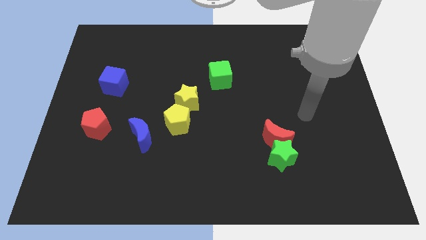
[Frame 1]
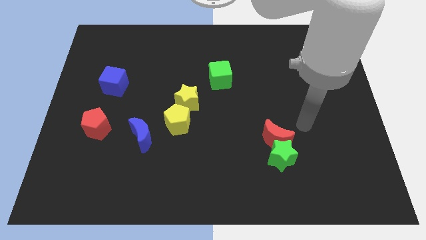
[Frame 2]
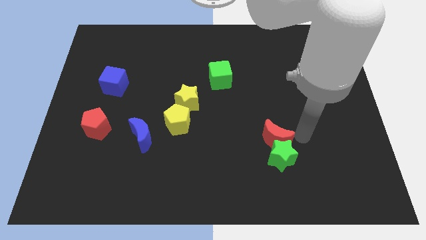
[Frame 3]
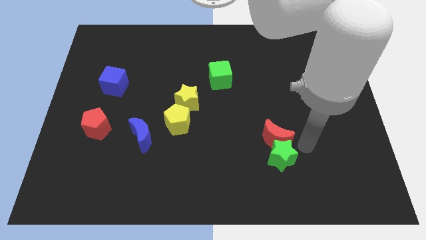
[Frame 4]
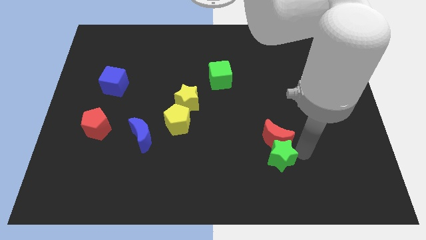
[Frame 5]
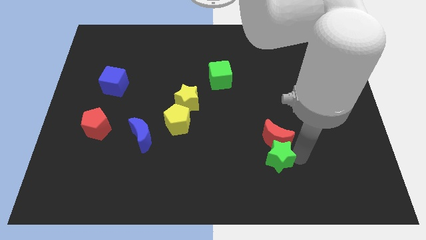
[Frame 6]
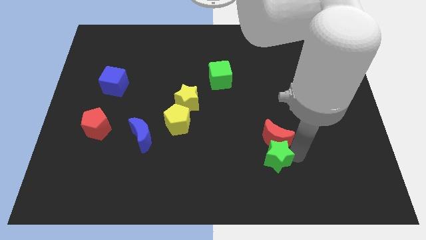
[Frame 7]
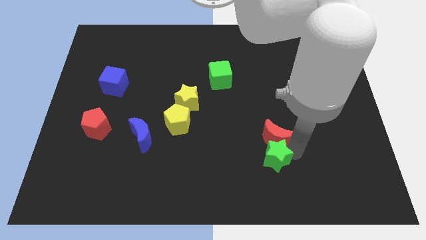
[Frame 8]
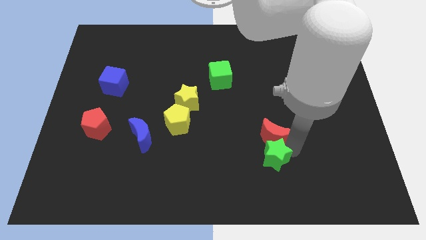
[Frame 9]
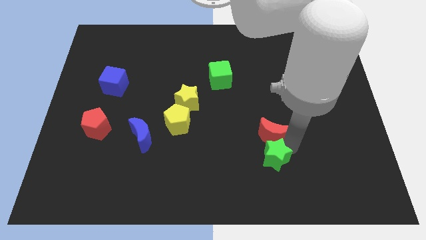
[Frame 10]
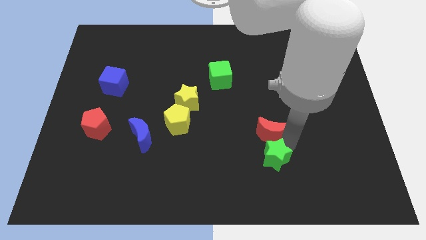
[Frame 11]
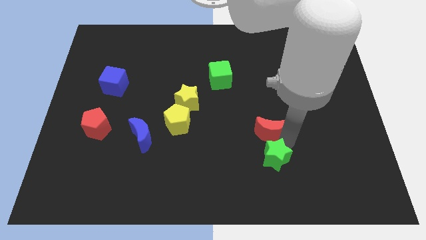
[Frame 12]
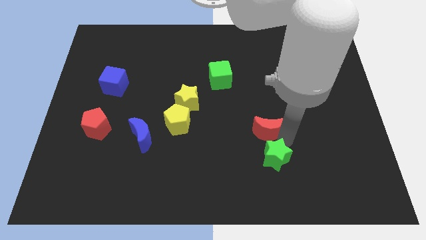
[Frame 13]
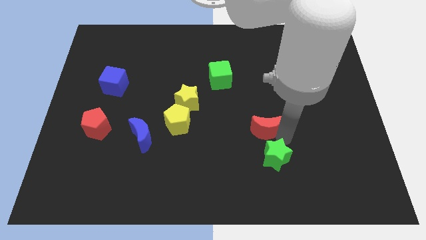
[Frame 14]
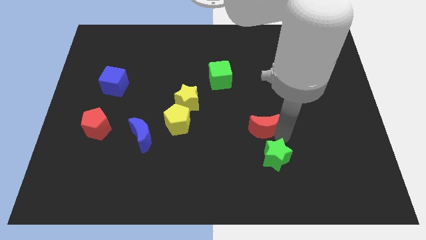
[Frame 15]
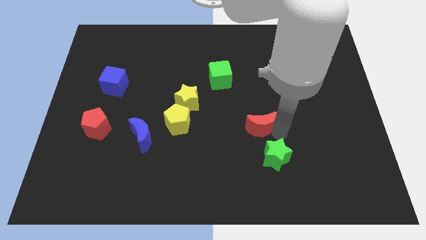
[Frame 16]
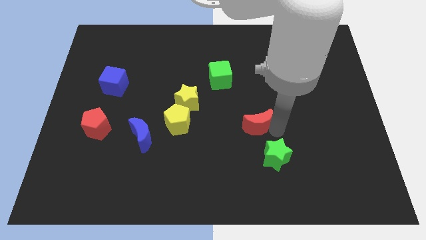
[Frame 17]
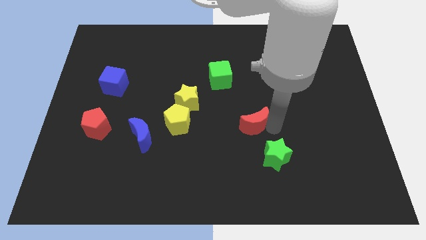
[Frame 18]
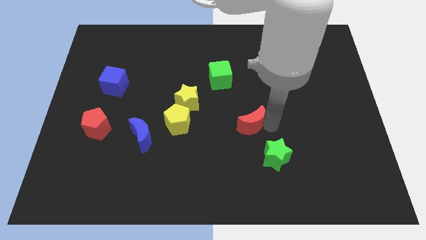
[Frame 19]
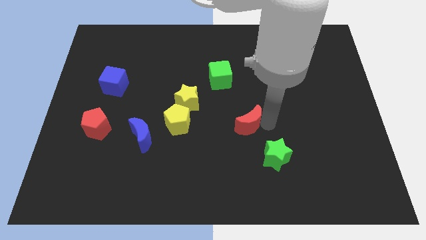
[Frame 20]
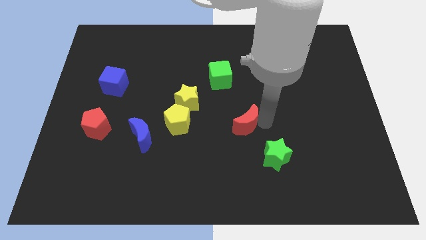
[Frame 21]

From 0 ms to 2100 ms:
slightly slide the red moon up and then left

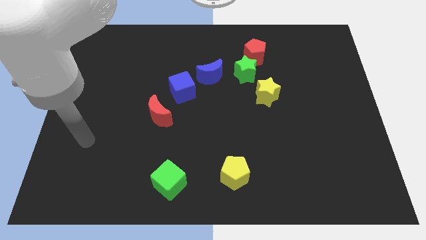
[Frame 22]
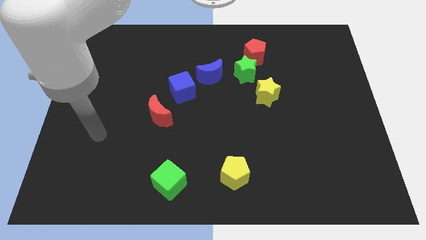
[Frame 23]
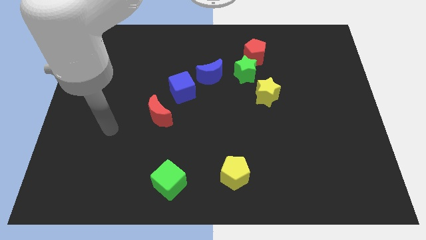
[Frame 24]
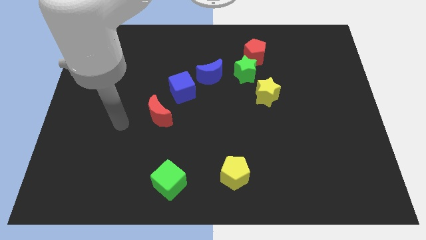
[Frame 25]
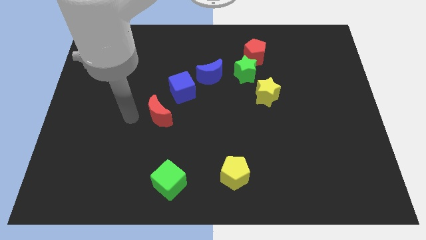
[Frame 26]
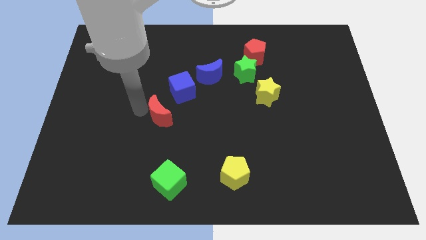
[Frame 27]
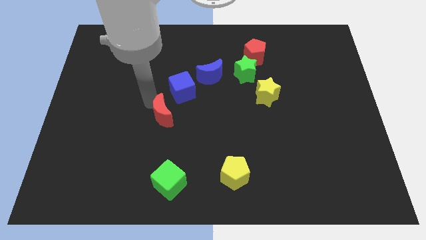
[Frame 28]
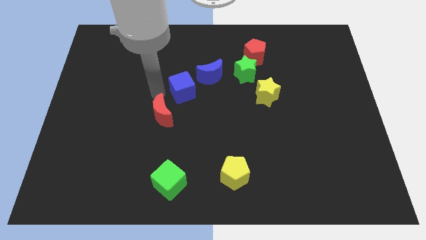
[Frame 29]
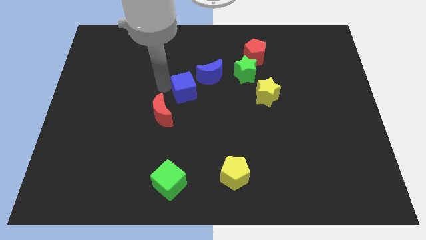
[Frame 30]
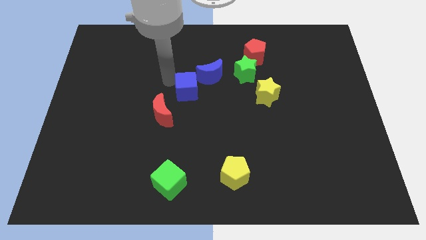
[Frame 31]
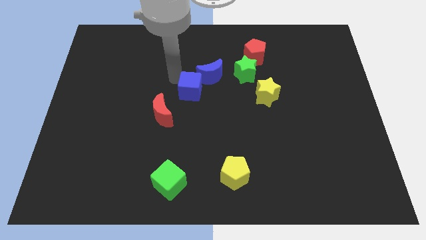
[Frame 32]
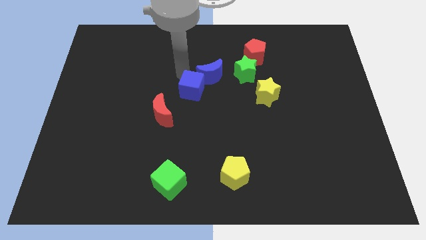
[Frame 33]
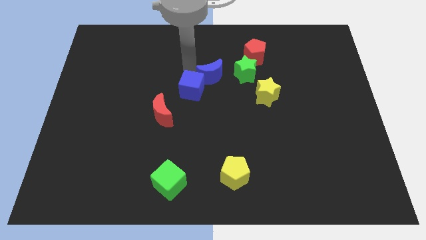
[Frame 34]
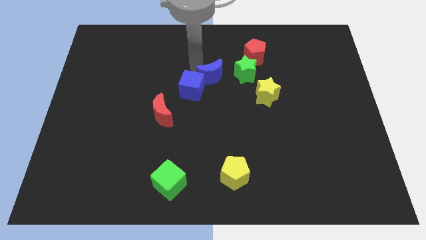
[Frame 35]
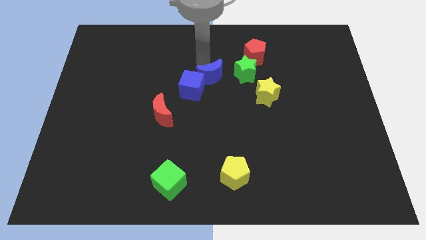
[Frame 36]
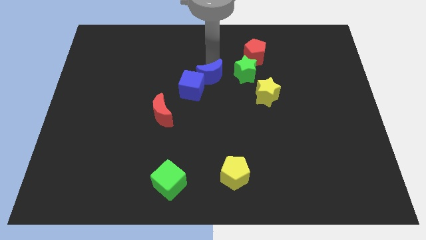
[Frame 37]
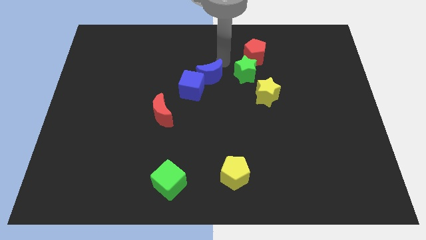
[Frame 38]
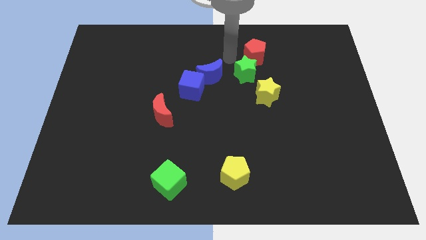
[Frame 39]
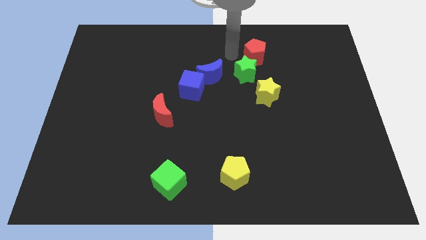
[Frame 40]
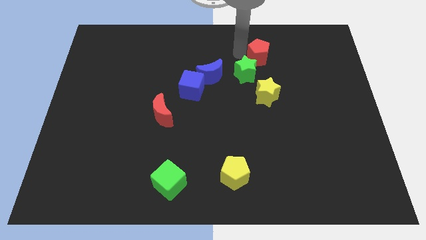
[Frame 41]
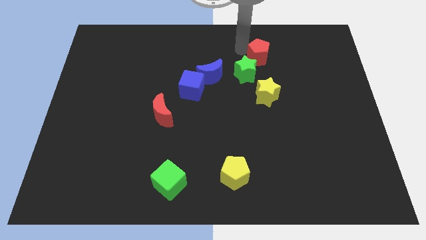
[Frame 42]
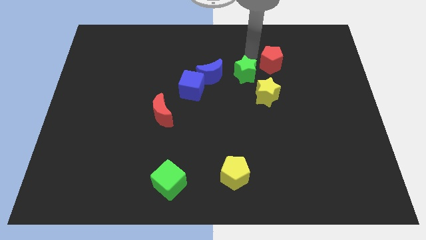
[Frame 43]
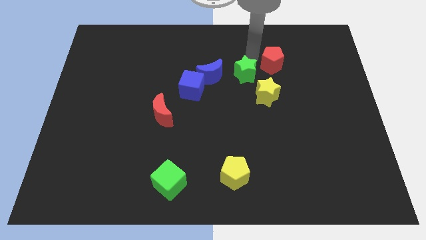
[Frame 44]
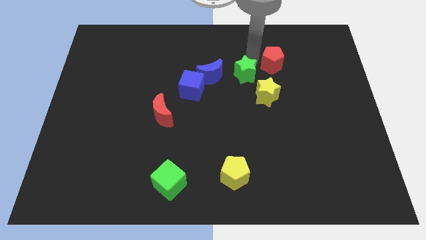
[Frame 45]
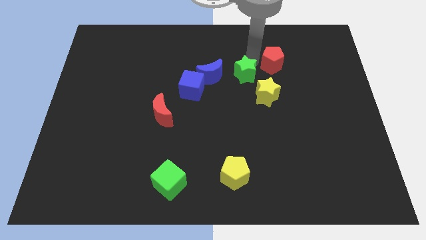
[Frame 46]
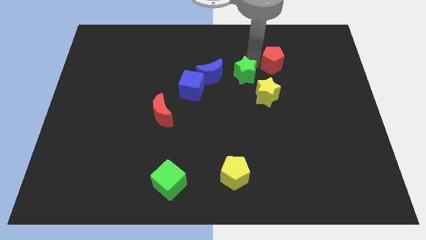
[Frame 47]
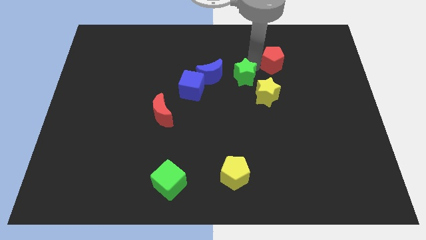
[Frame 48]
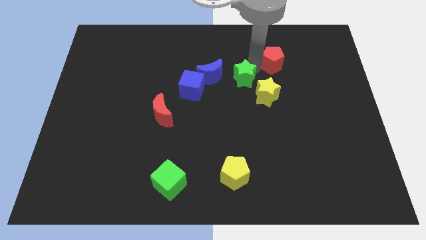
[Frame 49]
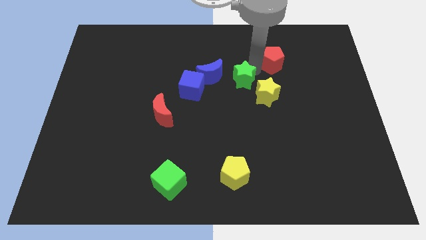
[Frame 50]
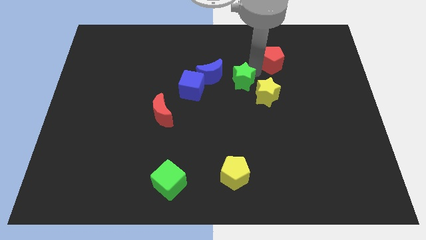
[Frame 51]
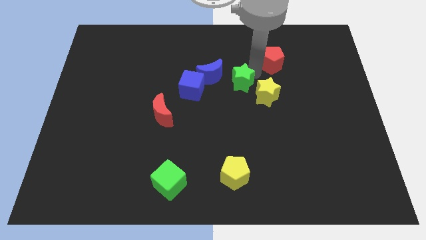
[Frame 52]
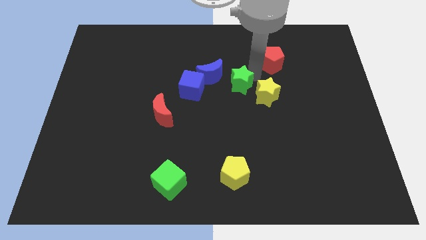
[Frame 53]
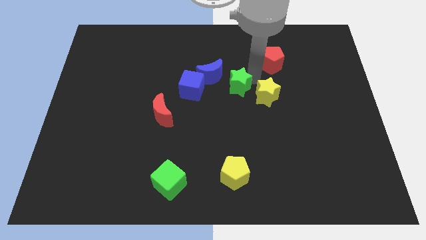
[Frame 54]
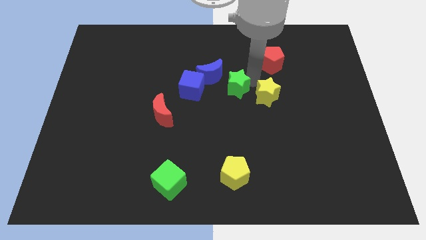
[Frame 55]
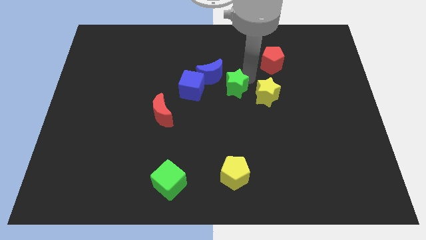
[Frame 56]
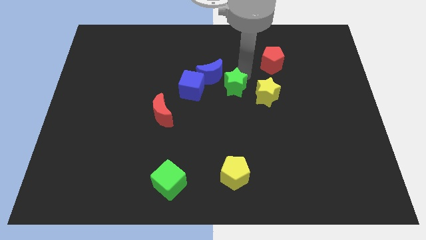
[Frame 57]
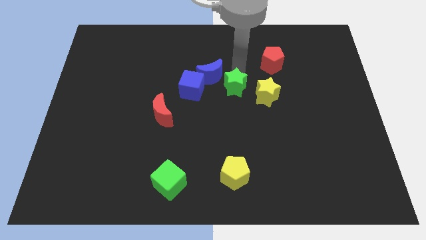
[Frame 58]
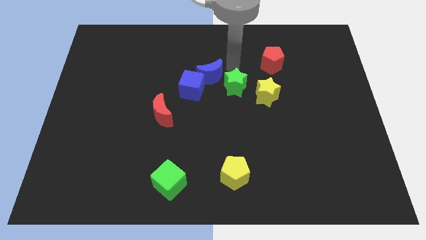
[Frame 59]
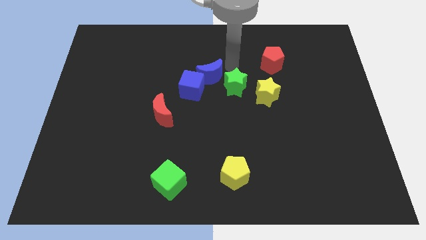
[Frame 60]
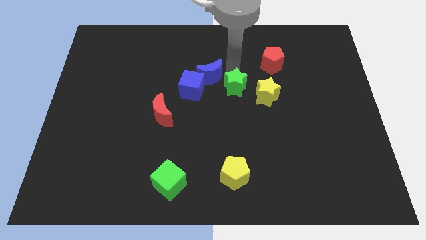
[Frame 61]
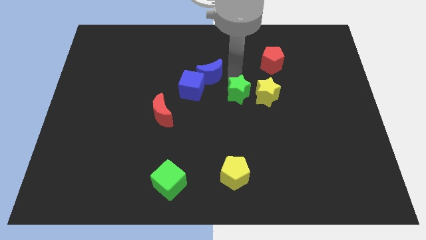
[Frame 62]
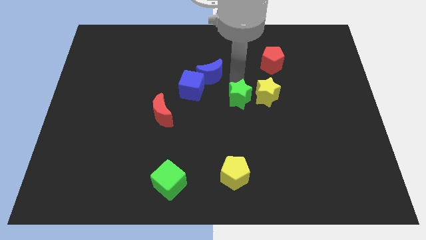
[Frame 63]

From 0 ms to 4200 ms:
slide the green star a little bit down

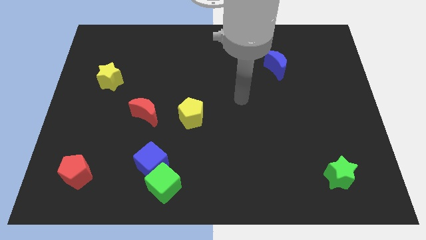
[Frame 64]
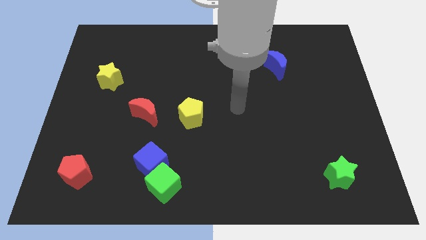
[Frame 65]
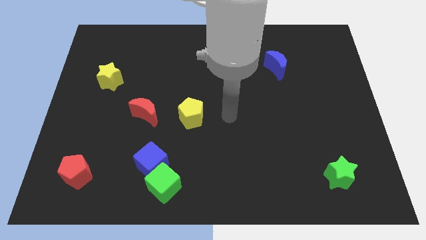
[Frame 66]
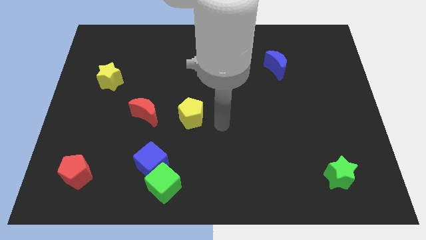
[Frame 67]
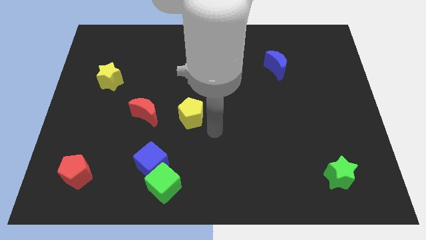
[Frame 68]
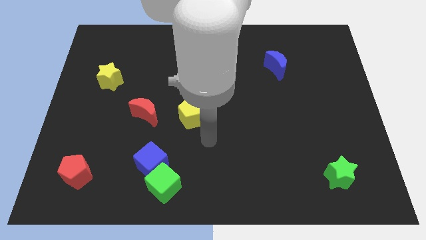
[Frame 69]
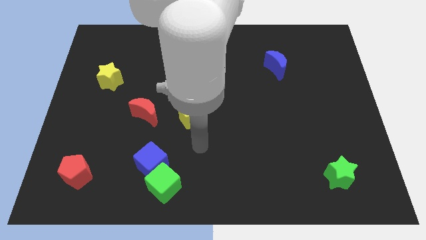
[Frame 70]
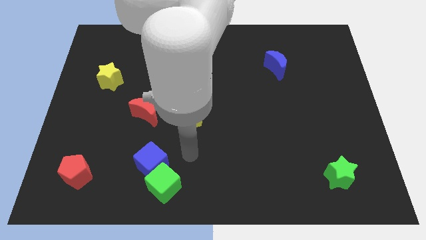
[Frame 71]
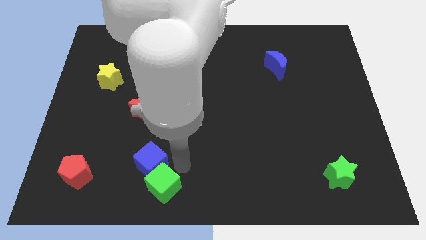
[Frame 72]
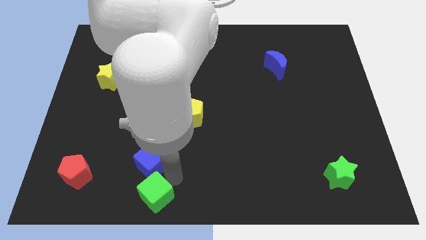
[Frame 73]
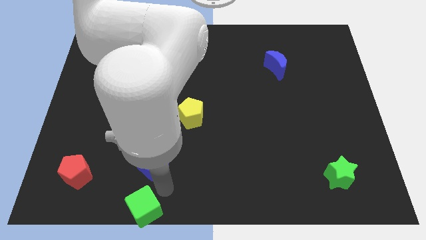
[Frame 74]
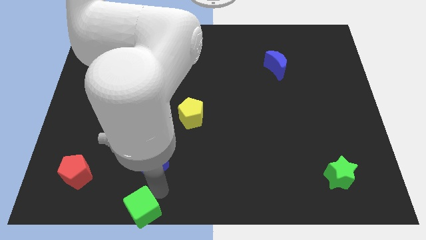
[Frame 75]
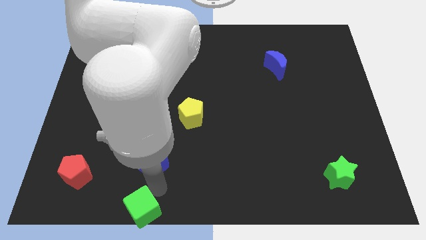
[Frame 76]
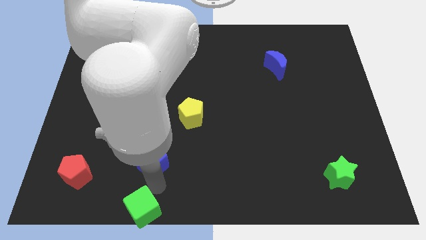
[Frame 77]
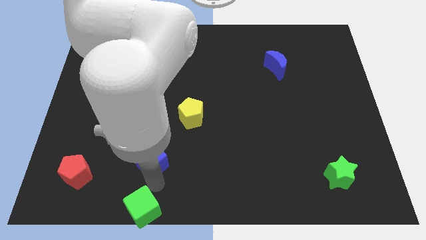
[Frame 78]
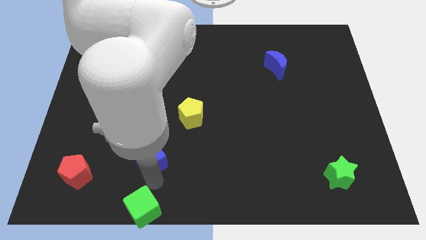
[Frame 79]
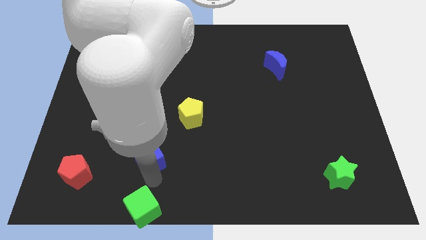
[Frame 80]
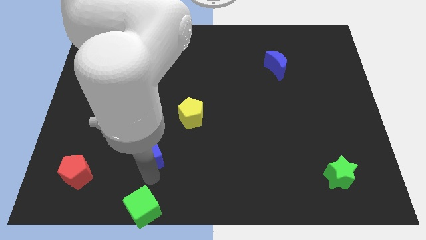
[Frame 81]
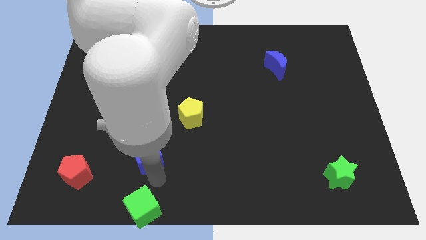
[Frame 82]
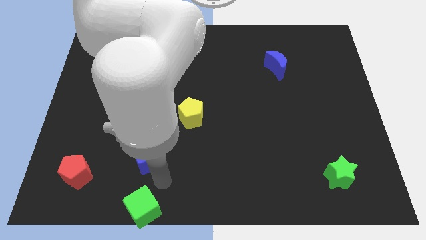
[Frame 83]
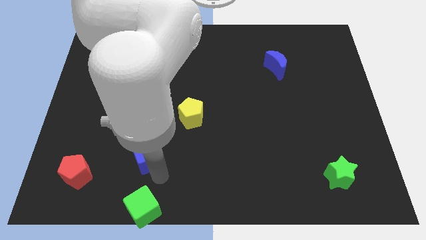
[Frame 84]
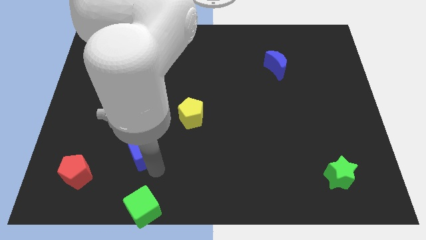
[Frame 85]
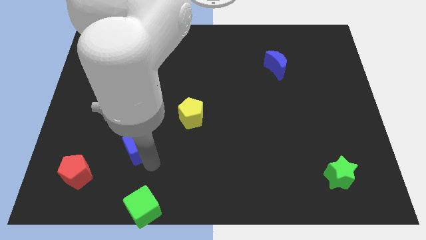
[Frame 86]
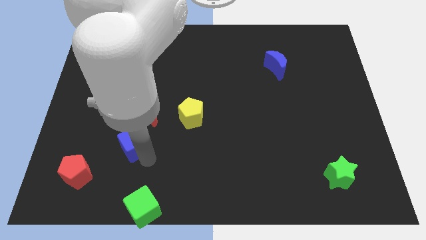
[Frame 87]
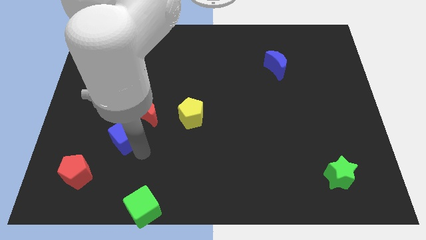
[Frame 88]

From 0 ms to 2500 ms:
slightly move the blue cube up and to the left
